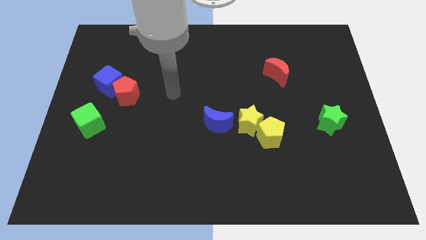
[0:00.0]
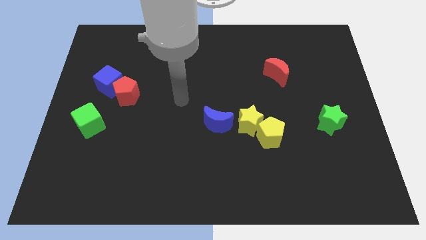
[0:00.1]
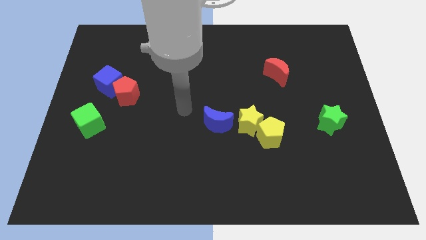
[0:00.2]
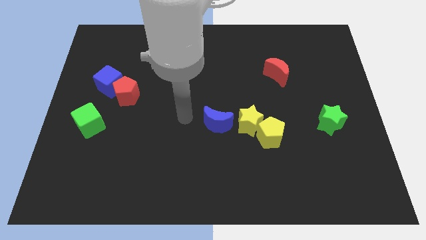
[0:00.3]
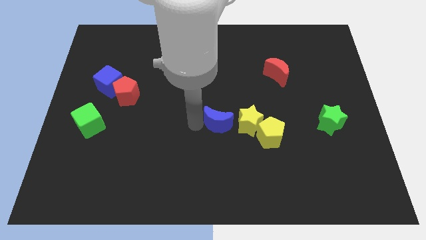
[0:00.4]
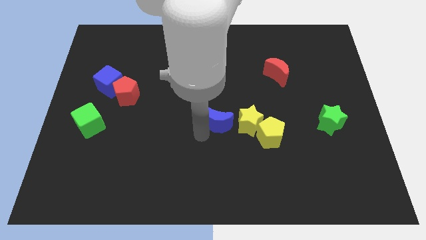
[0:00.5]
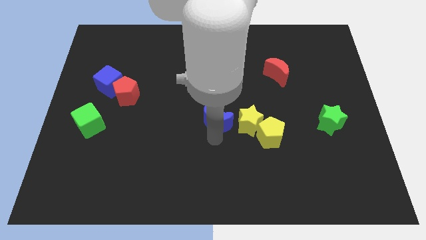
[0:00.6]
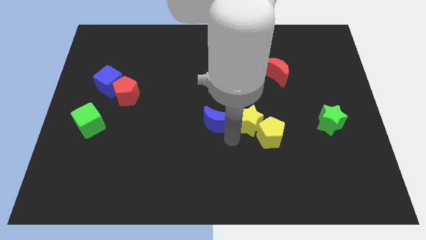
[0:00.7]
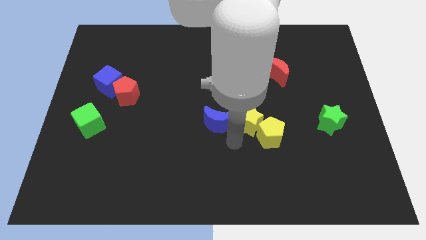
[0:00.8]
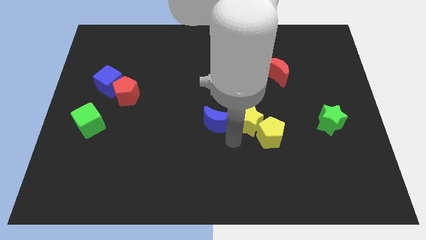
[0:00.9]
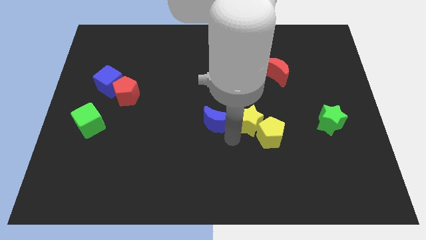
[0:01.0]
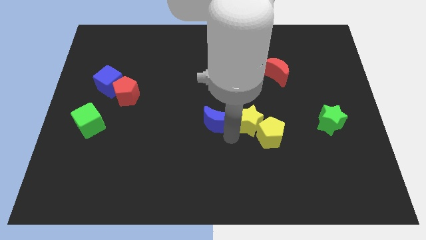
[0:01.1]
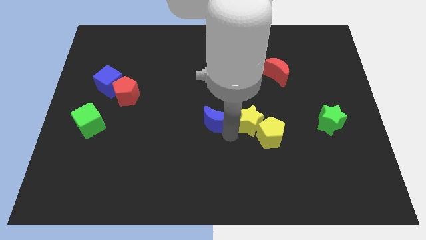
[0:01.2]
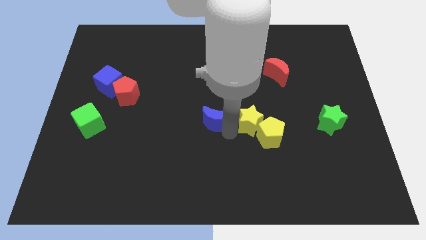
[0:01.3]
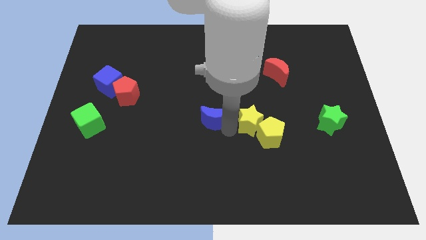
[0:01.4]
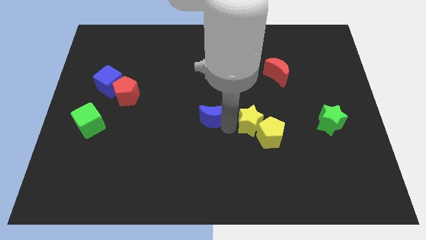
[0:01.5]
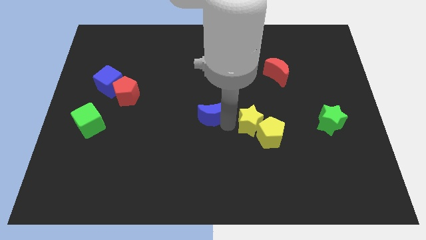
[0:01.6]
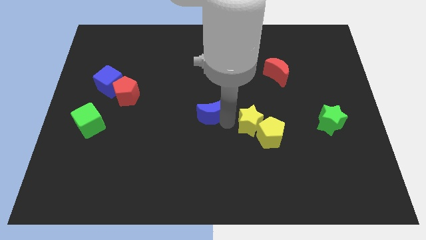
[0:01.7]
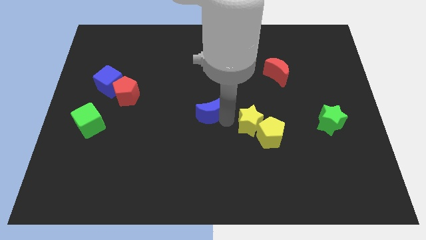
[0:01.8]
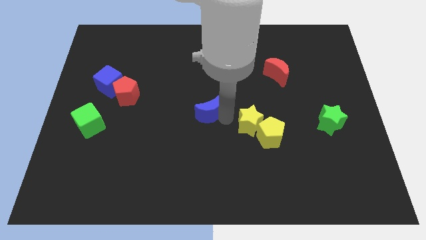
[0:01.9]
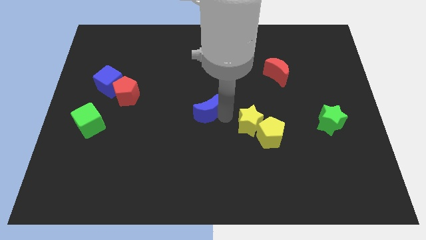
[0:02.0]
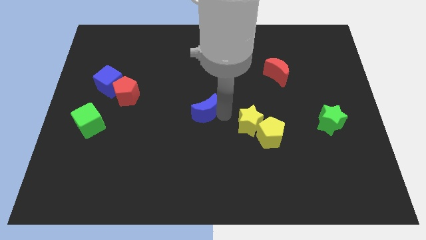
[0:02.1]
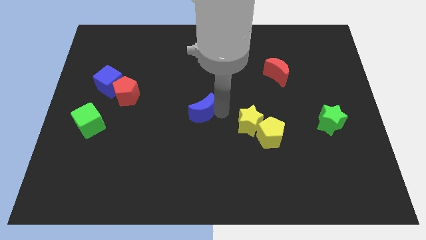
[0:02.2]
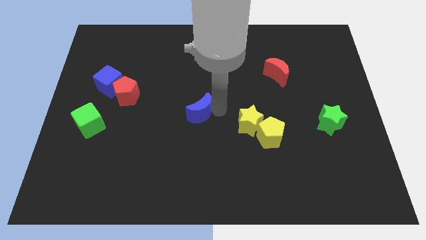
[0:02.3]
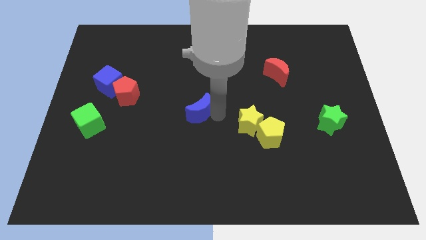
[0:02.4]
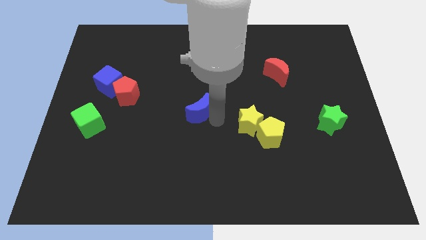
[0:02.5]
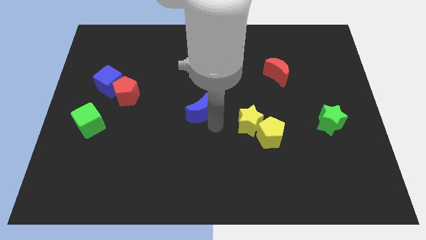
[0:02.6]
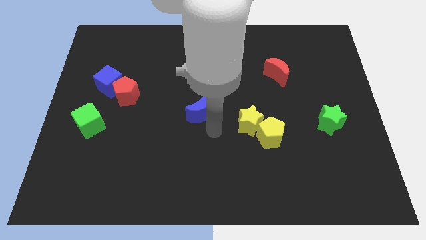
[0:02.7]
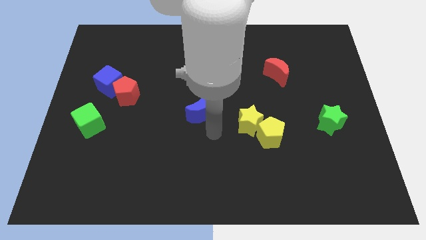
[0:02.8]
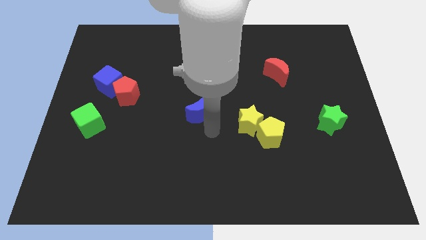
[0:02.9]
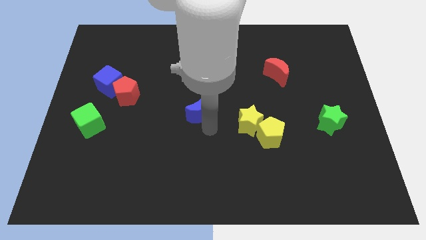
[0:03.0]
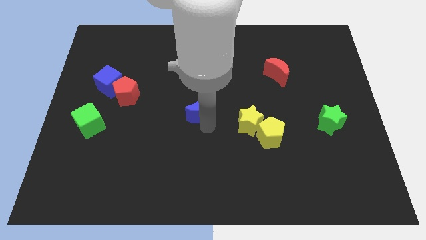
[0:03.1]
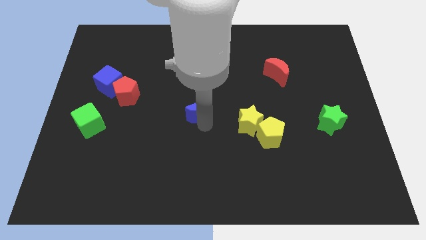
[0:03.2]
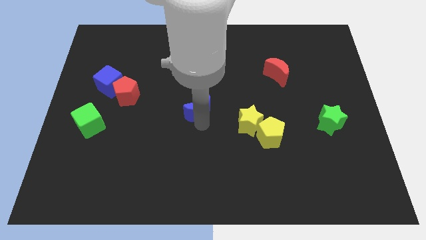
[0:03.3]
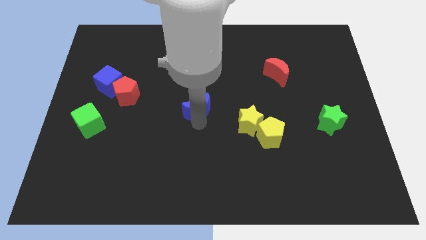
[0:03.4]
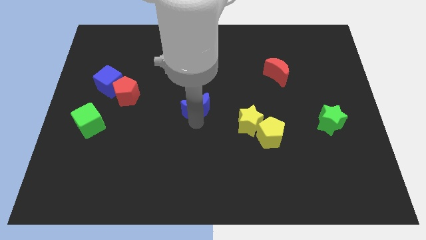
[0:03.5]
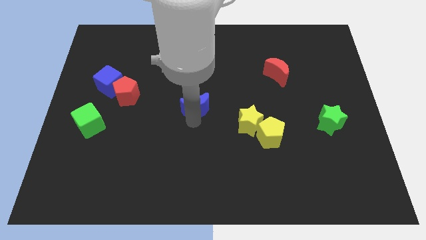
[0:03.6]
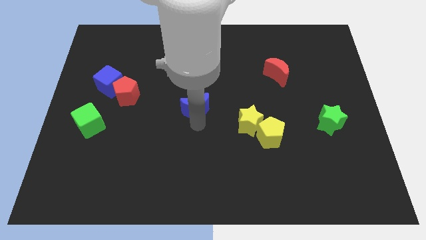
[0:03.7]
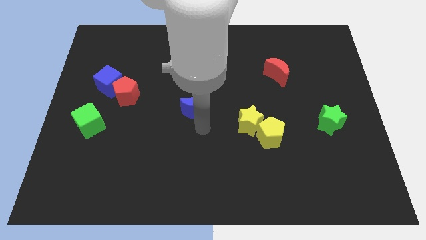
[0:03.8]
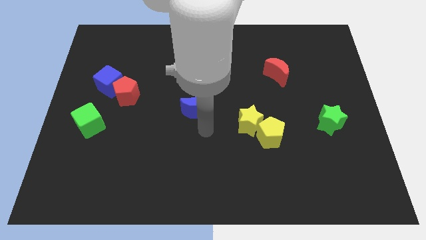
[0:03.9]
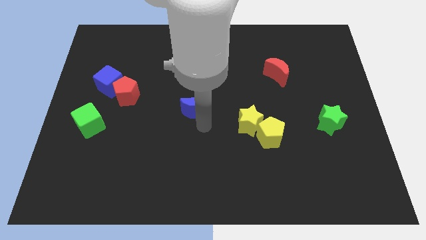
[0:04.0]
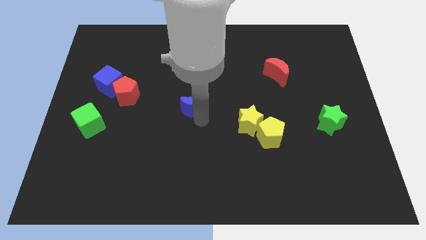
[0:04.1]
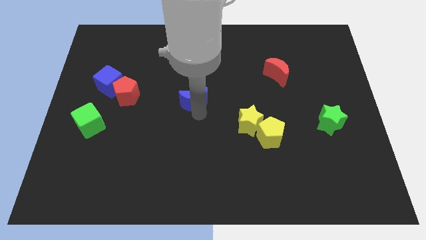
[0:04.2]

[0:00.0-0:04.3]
push the blue moon slightly upwards and then to the left

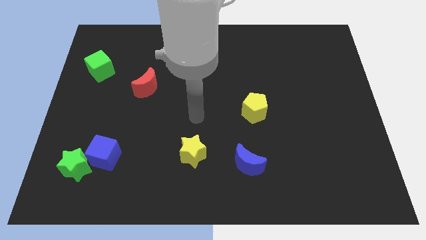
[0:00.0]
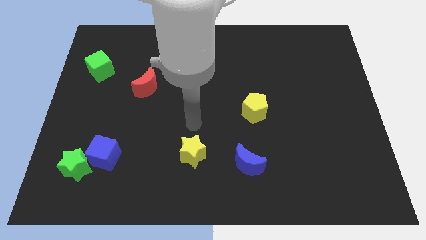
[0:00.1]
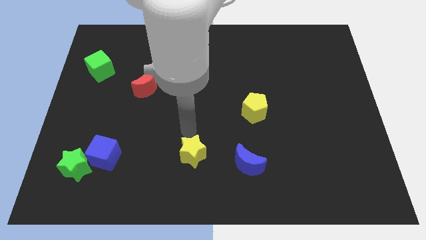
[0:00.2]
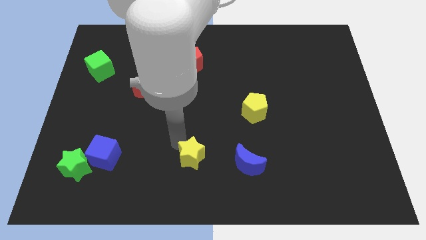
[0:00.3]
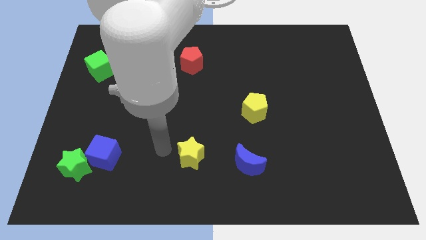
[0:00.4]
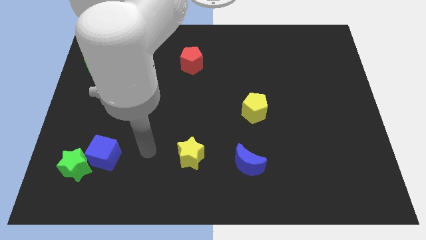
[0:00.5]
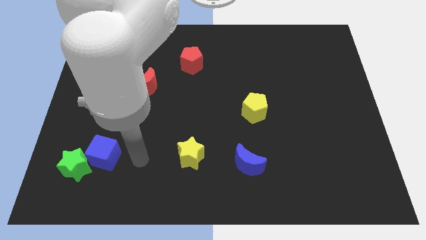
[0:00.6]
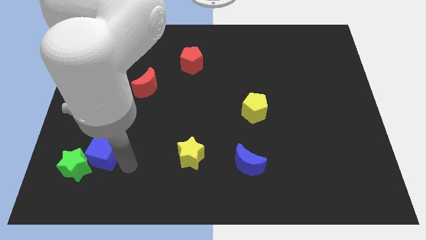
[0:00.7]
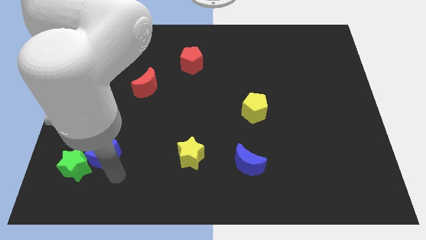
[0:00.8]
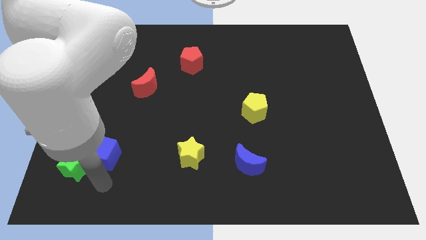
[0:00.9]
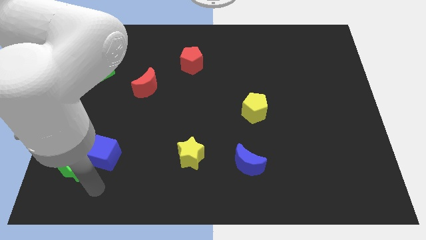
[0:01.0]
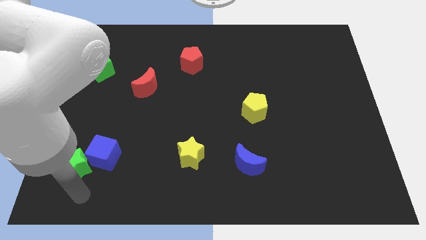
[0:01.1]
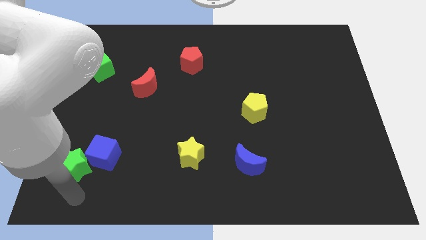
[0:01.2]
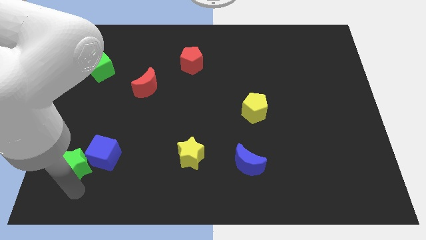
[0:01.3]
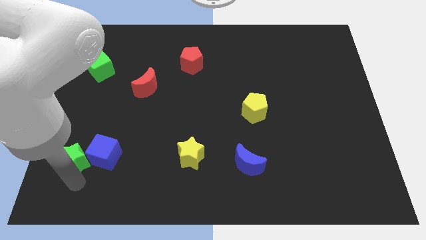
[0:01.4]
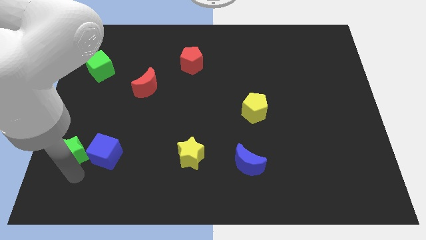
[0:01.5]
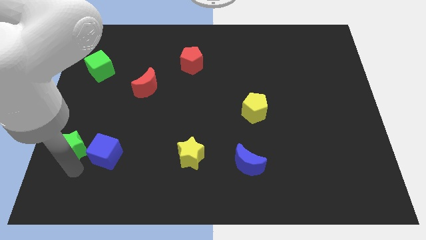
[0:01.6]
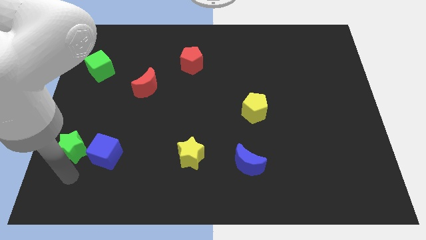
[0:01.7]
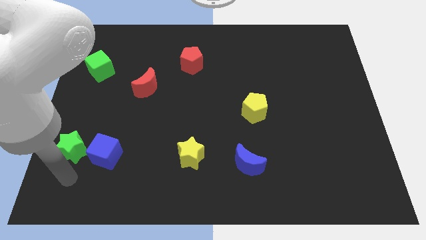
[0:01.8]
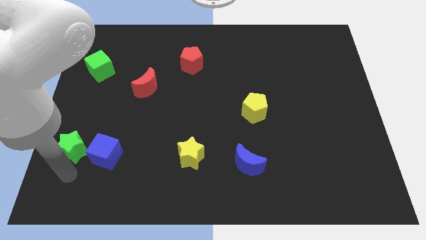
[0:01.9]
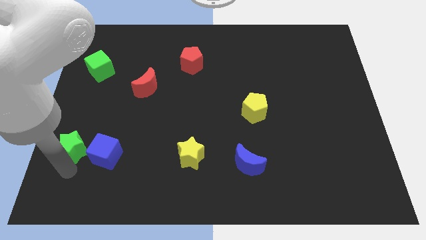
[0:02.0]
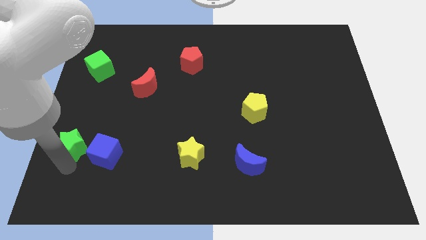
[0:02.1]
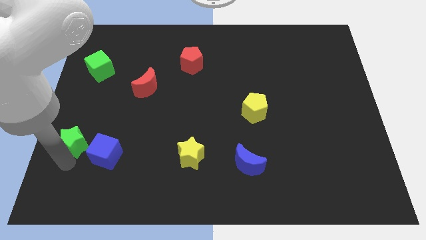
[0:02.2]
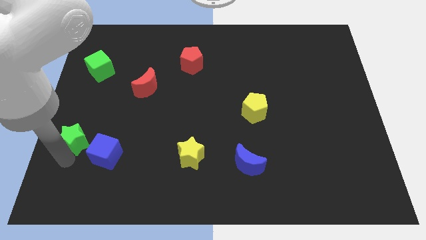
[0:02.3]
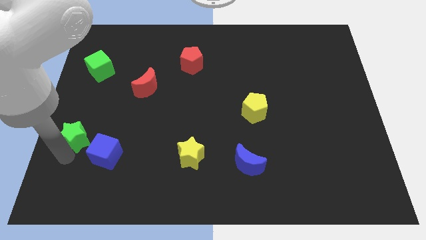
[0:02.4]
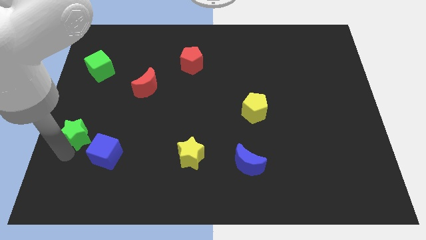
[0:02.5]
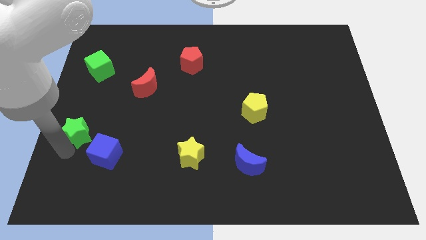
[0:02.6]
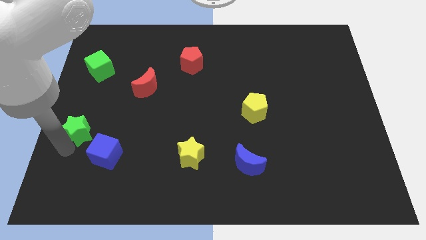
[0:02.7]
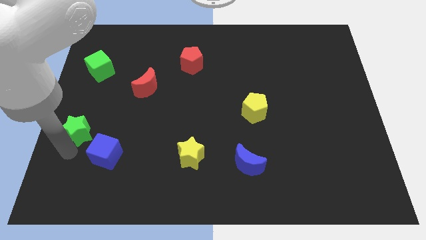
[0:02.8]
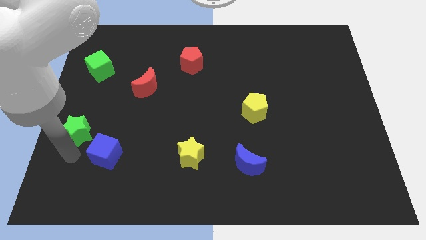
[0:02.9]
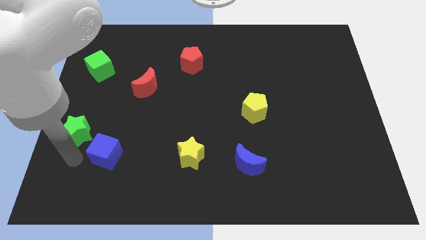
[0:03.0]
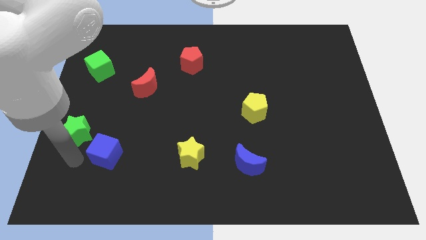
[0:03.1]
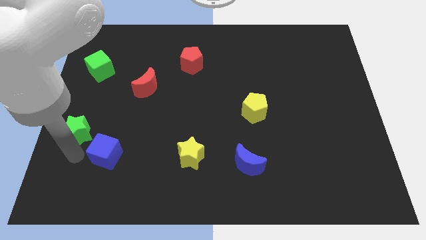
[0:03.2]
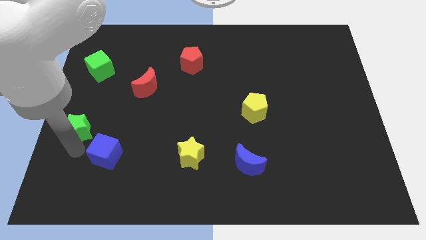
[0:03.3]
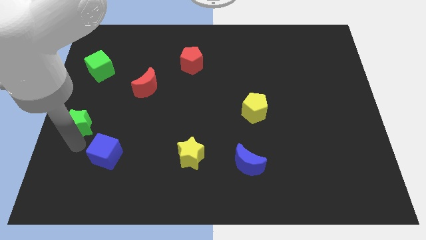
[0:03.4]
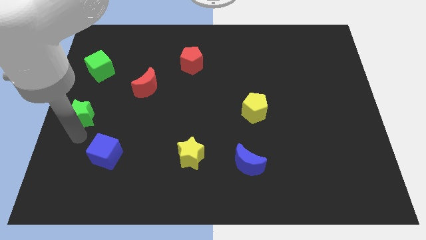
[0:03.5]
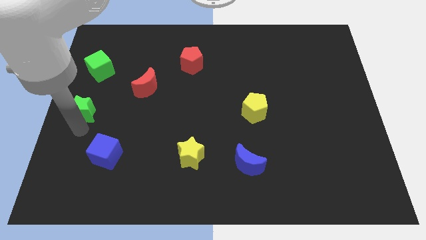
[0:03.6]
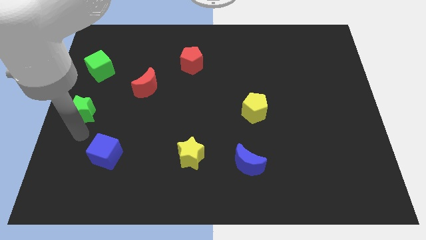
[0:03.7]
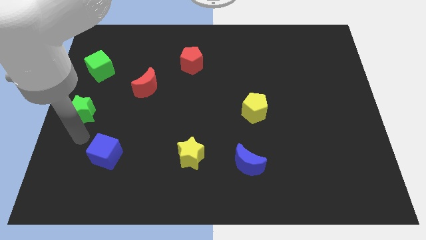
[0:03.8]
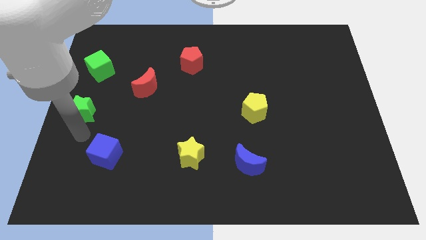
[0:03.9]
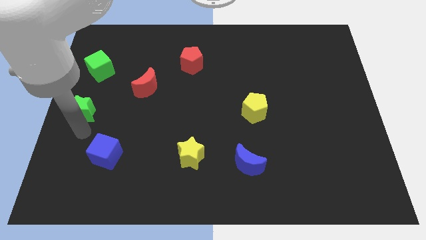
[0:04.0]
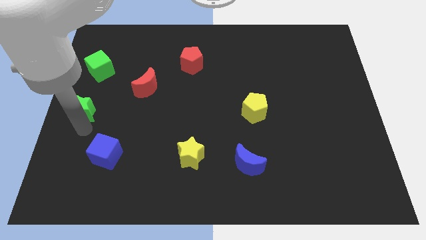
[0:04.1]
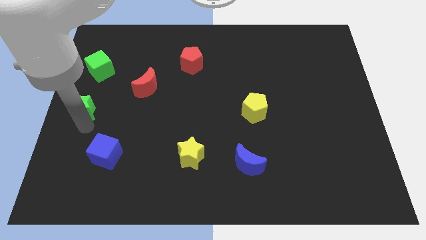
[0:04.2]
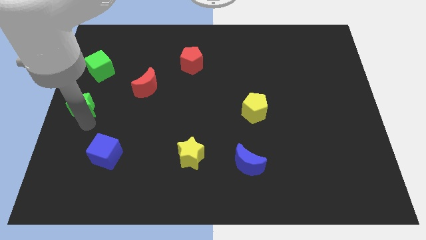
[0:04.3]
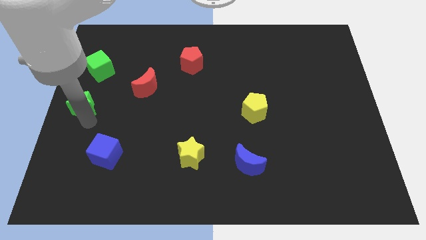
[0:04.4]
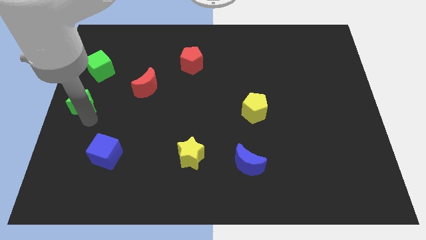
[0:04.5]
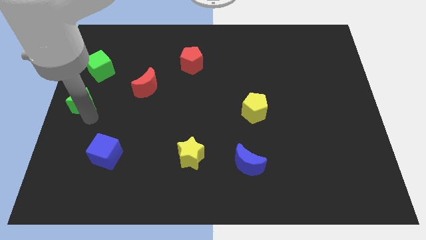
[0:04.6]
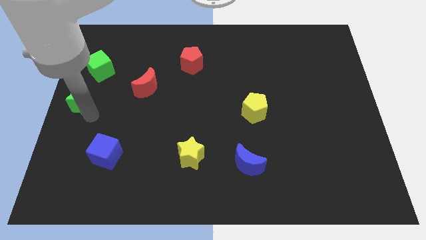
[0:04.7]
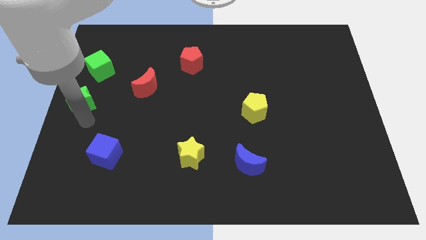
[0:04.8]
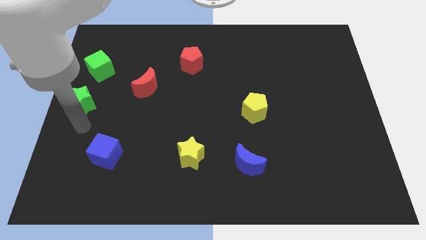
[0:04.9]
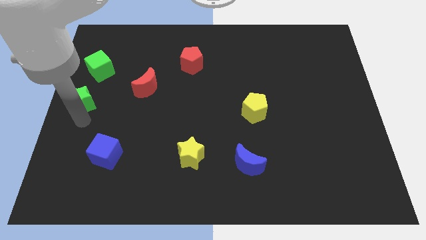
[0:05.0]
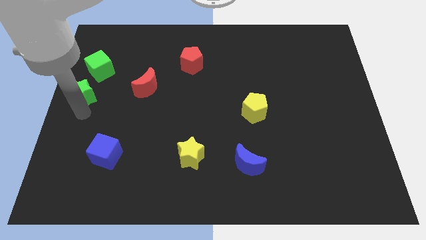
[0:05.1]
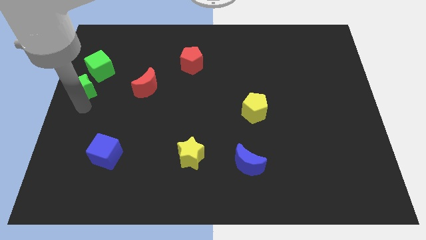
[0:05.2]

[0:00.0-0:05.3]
push the green star upwards
